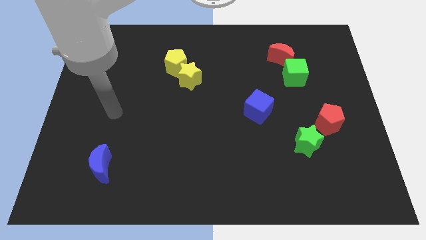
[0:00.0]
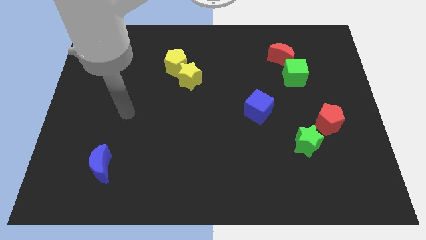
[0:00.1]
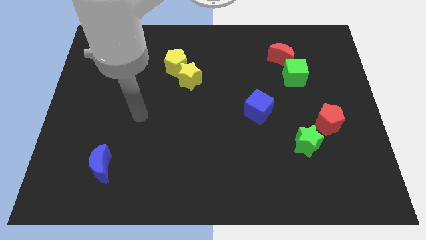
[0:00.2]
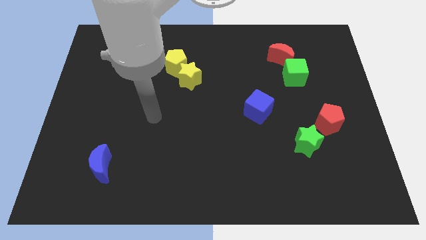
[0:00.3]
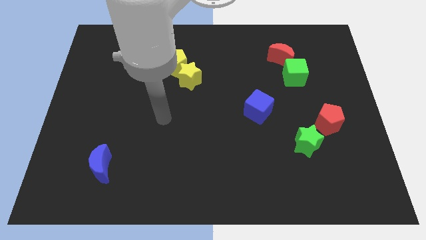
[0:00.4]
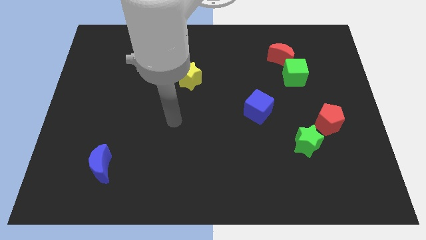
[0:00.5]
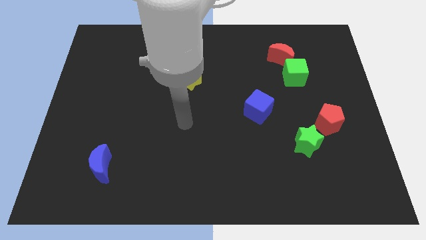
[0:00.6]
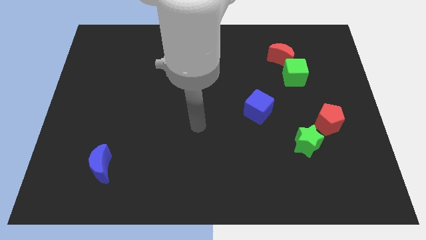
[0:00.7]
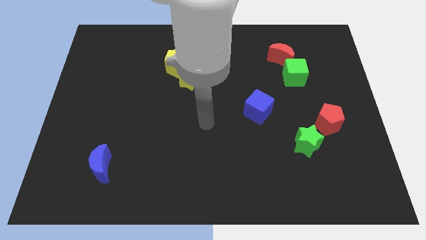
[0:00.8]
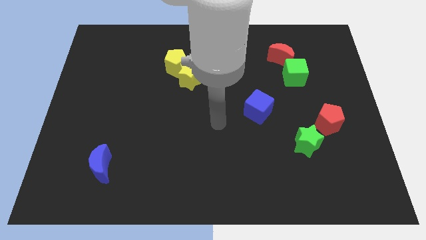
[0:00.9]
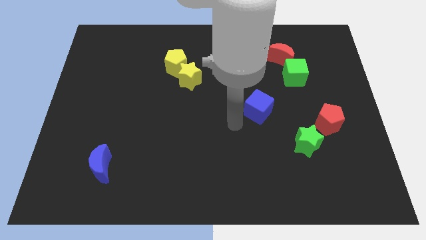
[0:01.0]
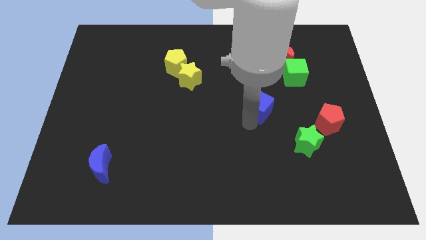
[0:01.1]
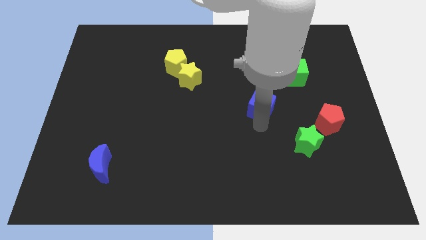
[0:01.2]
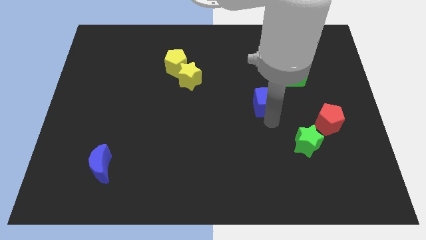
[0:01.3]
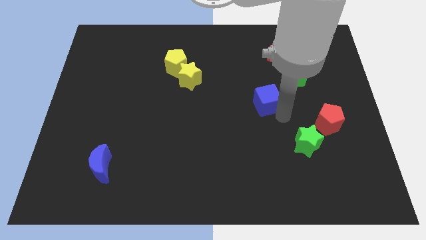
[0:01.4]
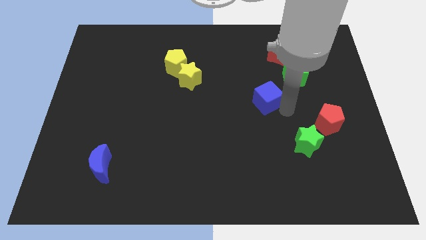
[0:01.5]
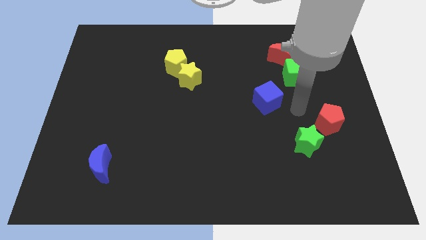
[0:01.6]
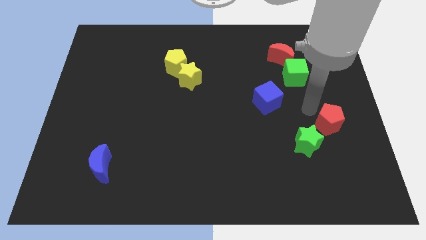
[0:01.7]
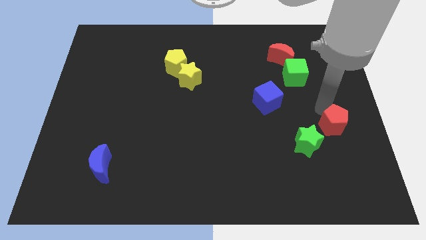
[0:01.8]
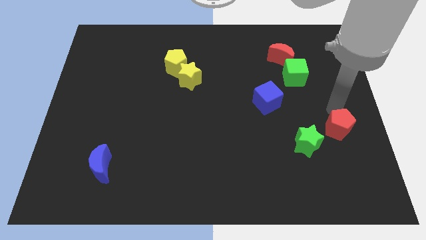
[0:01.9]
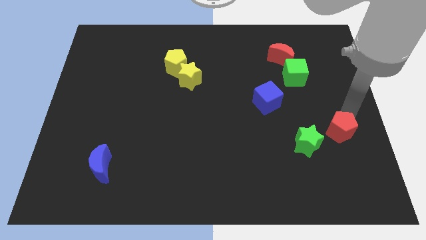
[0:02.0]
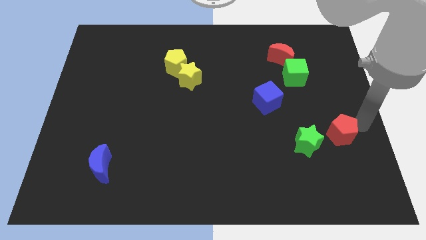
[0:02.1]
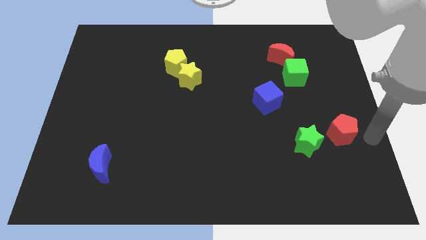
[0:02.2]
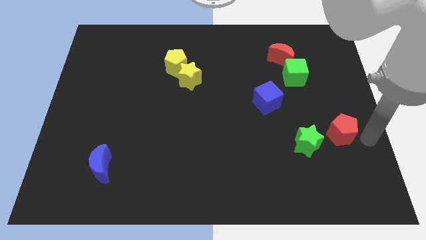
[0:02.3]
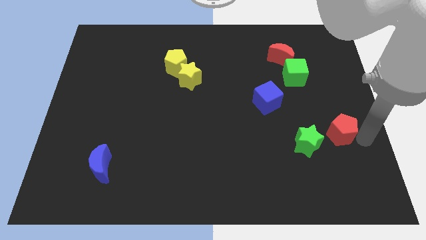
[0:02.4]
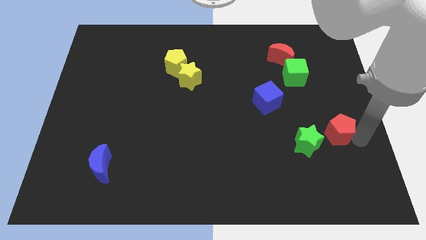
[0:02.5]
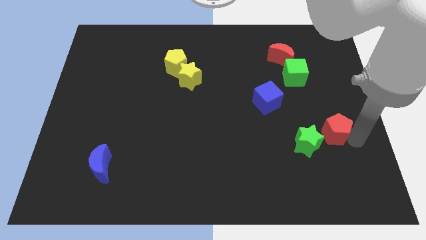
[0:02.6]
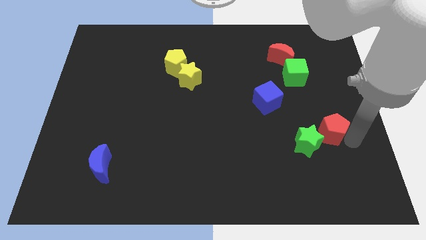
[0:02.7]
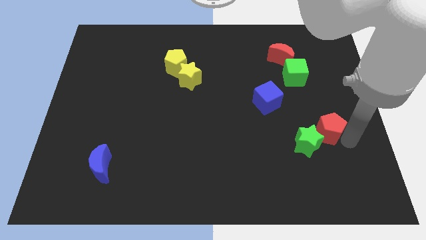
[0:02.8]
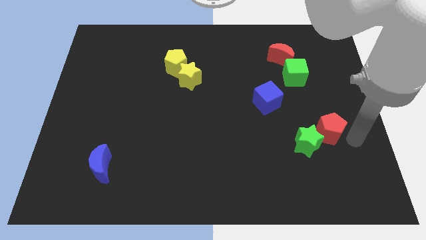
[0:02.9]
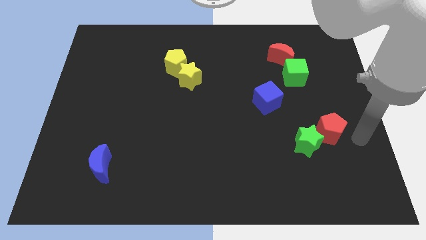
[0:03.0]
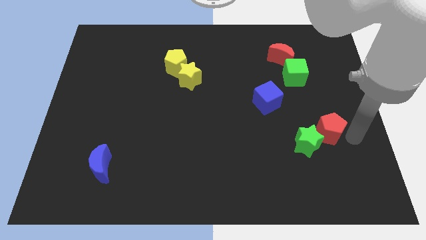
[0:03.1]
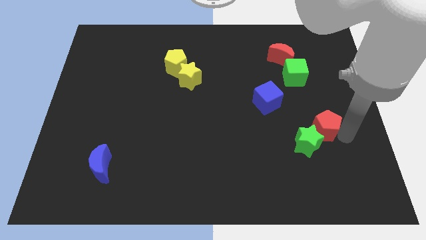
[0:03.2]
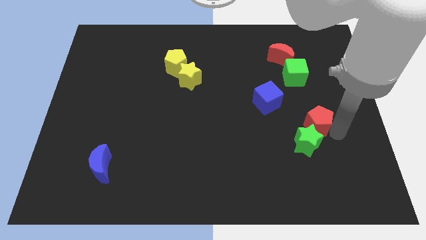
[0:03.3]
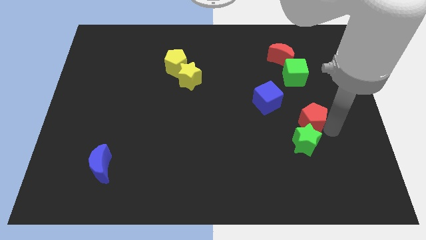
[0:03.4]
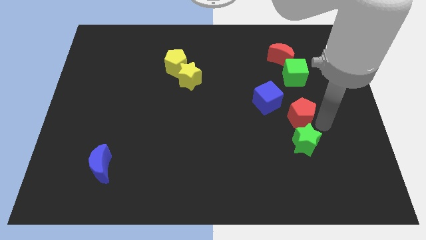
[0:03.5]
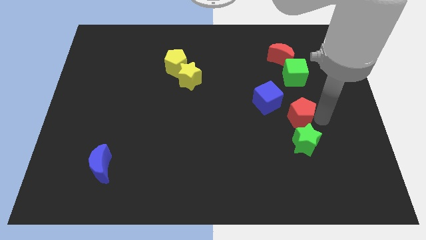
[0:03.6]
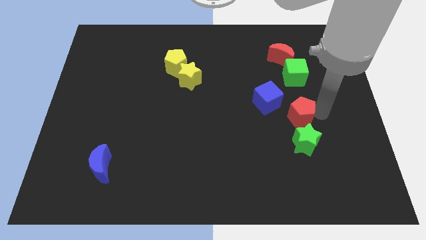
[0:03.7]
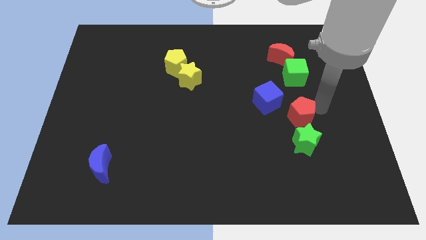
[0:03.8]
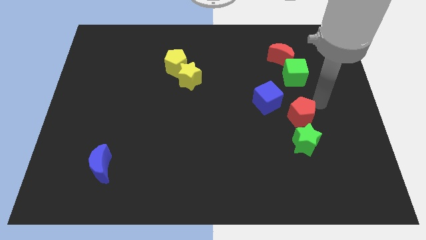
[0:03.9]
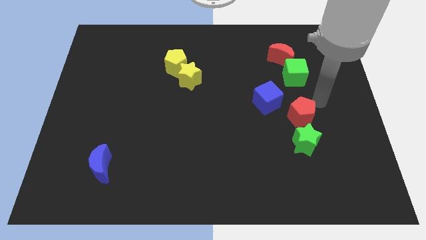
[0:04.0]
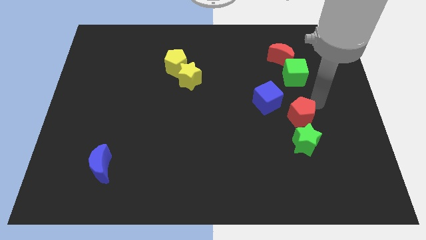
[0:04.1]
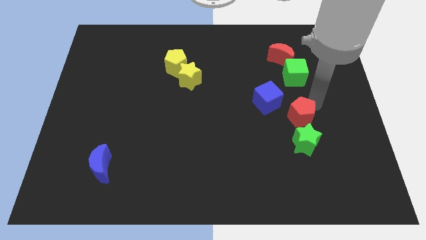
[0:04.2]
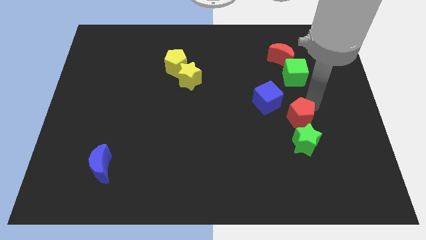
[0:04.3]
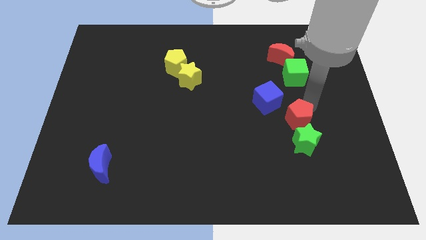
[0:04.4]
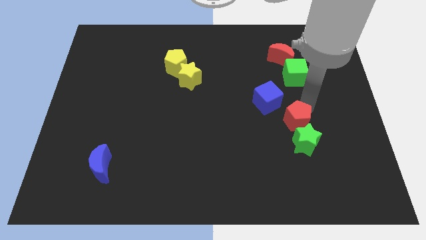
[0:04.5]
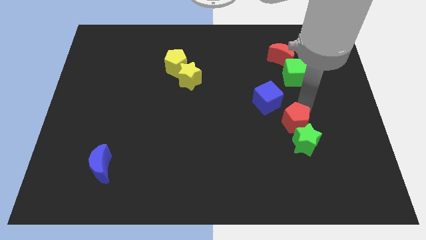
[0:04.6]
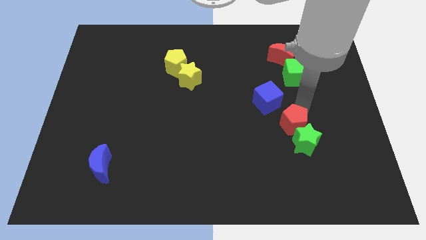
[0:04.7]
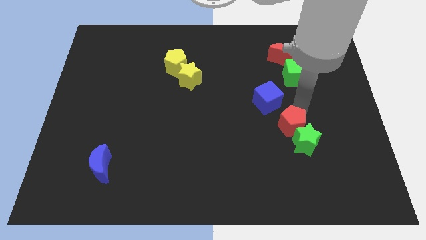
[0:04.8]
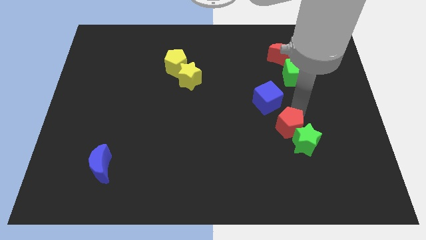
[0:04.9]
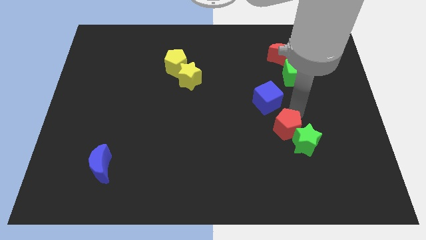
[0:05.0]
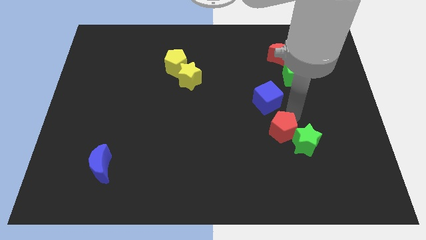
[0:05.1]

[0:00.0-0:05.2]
push the red pentagon somewhat diagonally downwards and to the left

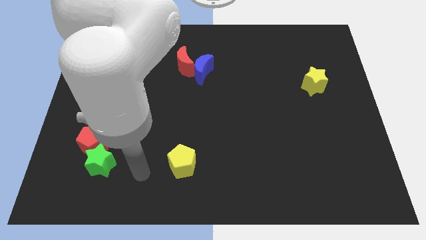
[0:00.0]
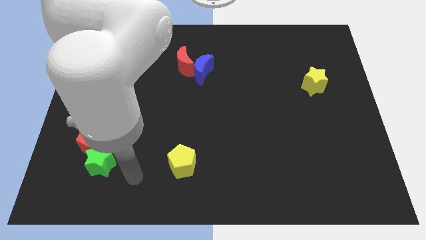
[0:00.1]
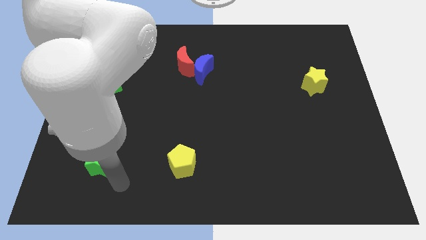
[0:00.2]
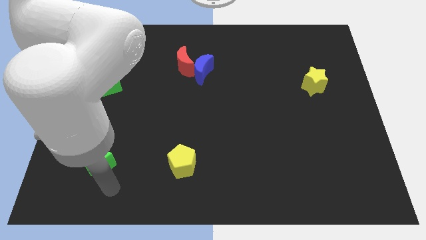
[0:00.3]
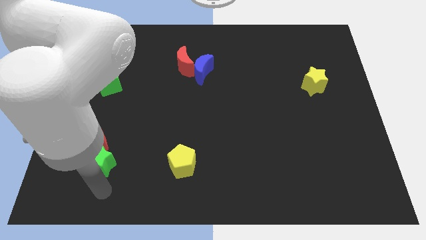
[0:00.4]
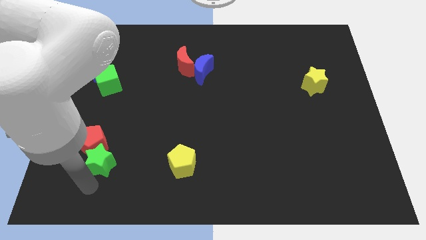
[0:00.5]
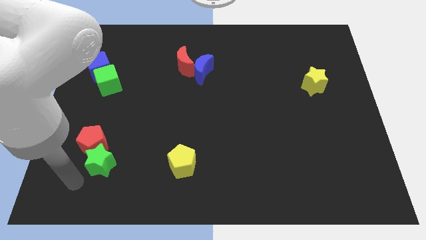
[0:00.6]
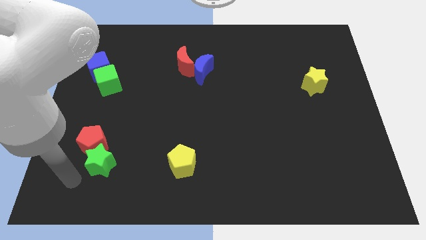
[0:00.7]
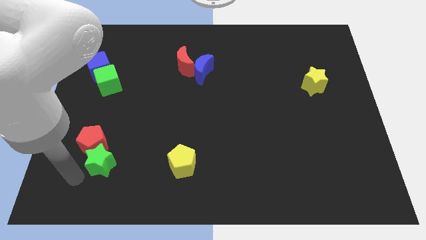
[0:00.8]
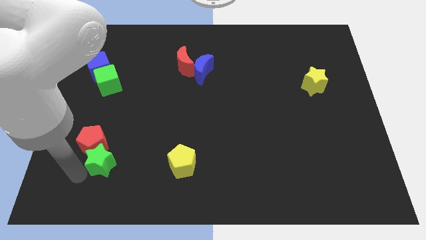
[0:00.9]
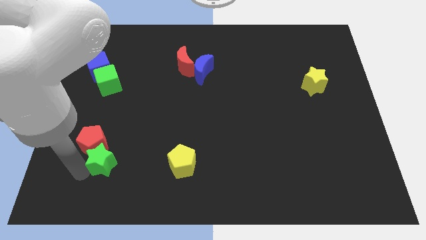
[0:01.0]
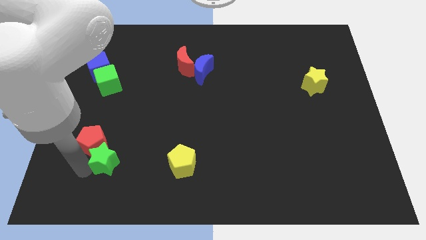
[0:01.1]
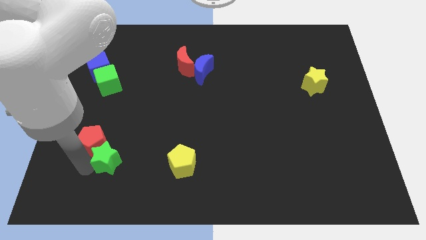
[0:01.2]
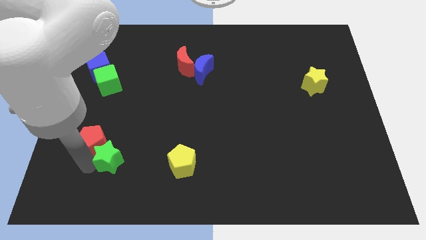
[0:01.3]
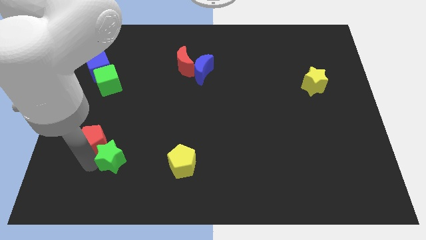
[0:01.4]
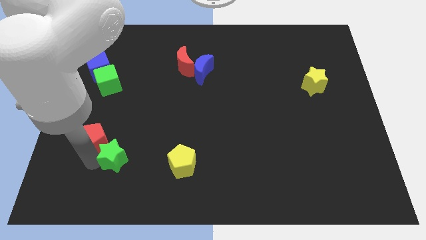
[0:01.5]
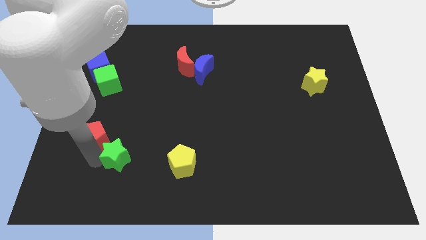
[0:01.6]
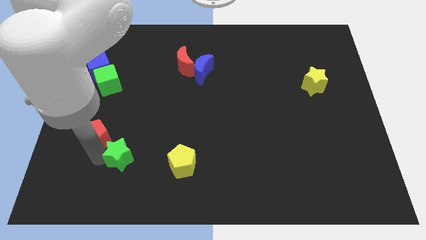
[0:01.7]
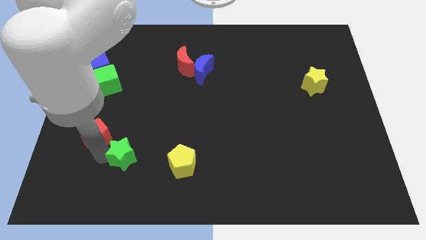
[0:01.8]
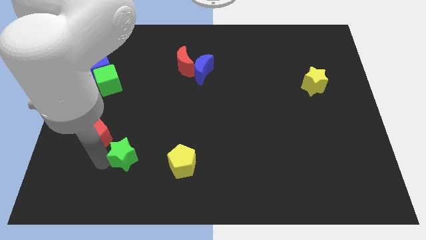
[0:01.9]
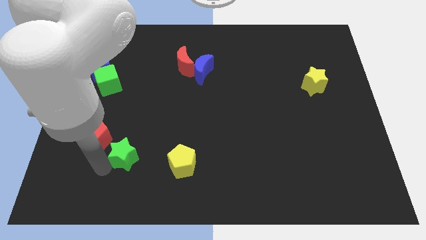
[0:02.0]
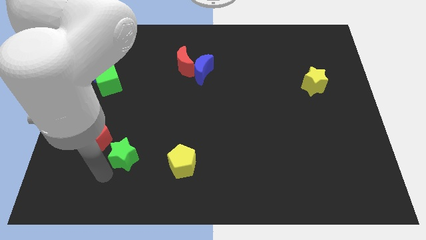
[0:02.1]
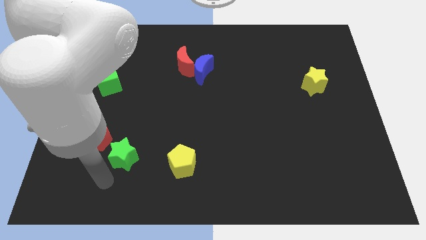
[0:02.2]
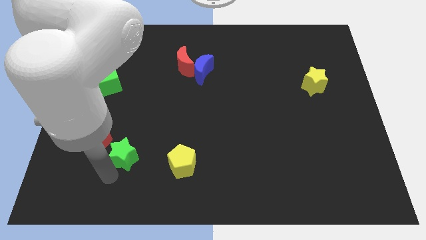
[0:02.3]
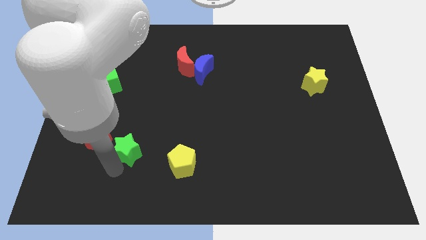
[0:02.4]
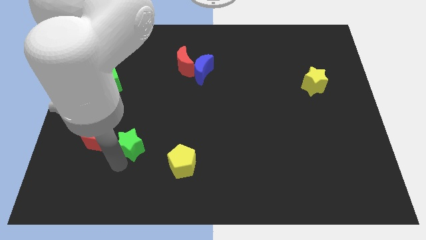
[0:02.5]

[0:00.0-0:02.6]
move the green star upwards and to the right somewhat

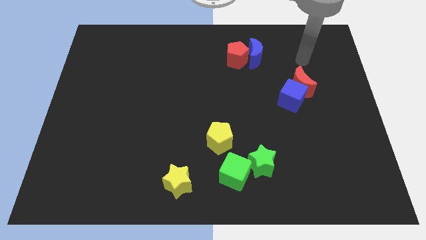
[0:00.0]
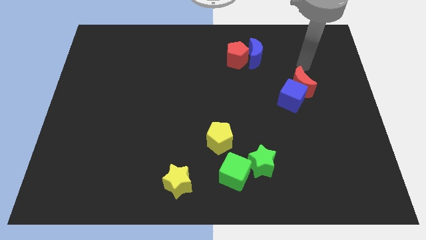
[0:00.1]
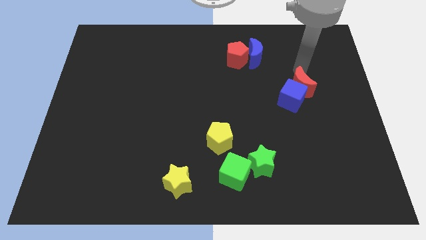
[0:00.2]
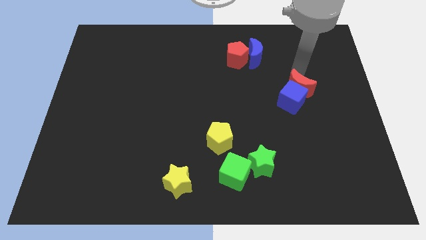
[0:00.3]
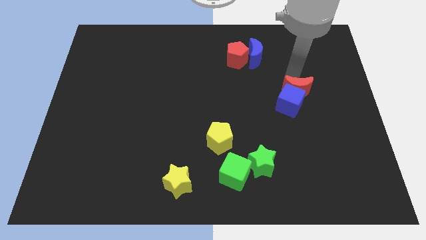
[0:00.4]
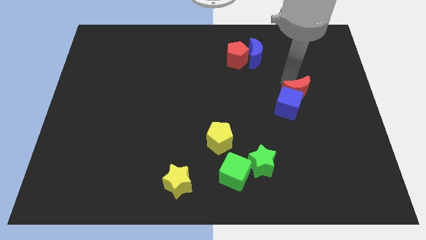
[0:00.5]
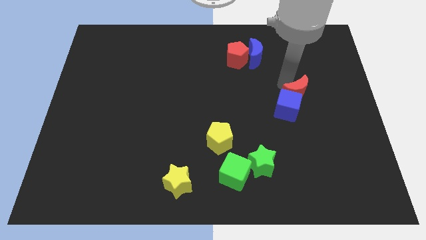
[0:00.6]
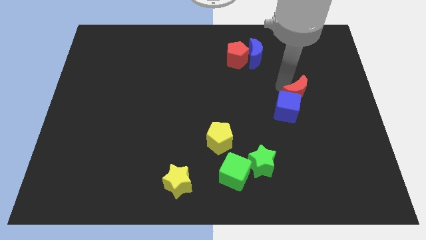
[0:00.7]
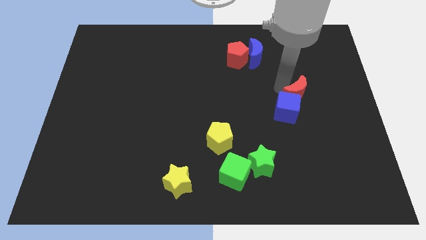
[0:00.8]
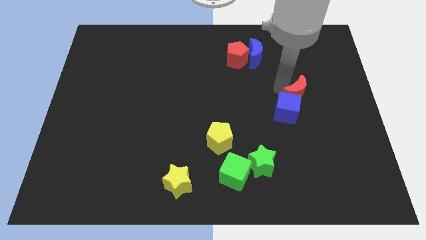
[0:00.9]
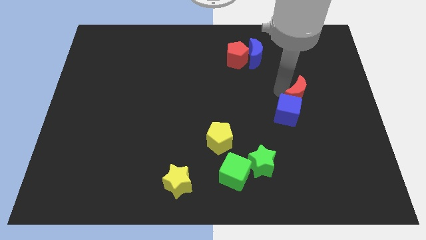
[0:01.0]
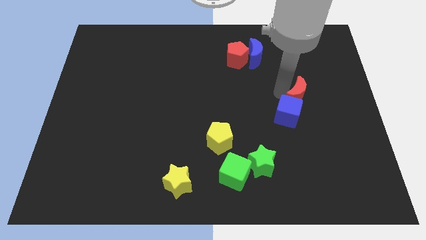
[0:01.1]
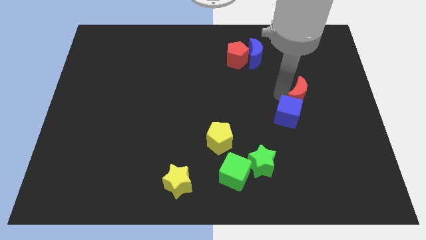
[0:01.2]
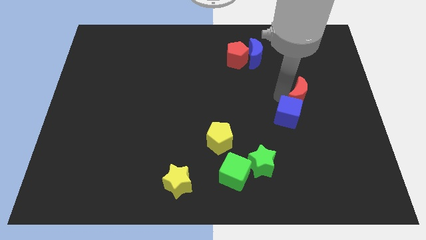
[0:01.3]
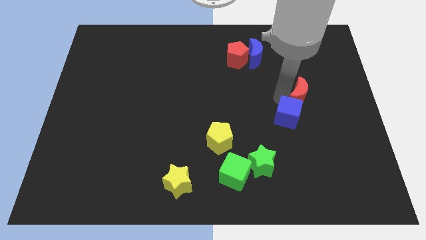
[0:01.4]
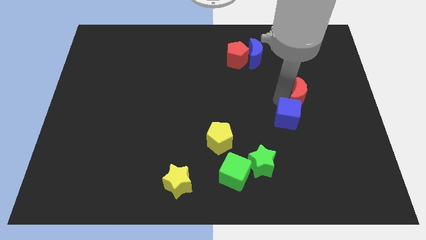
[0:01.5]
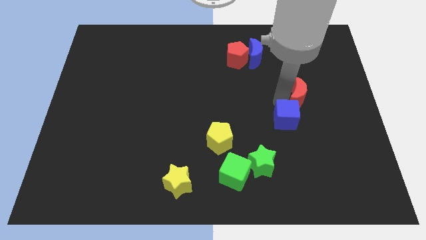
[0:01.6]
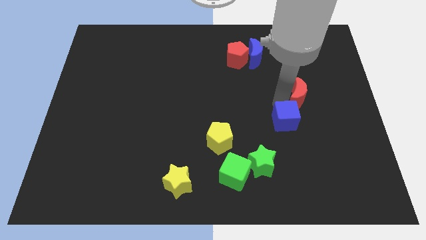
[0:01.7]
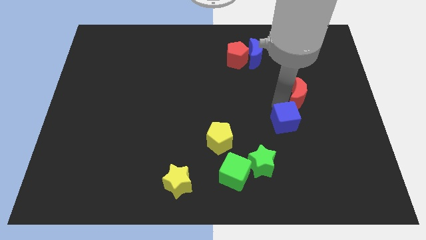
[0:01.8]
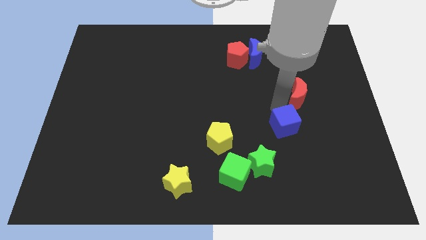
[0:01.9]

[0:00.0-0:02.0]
push the blue cube a little bit downwards
